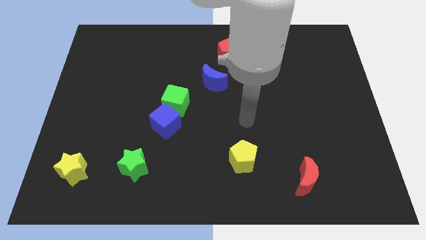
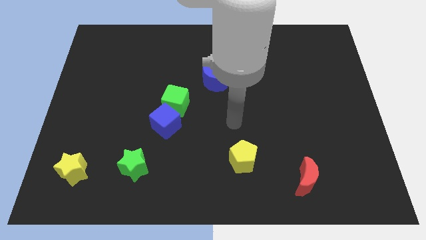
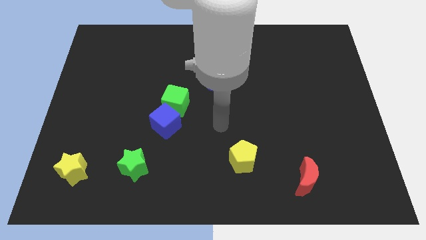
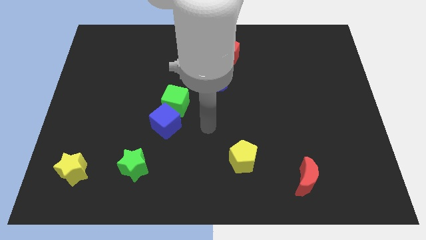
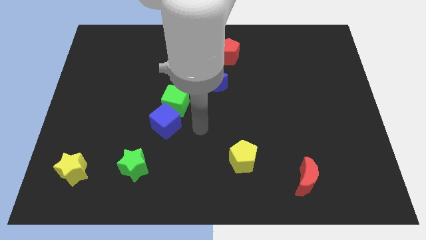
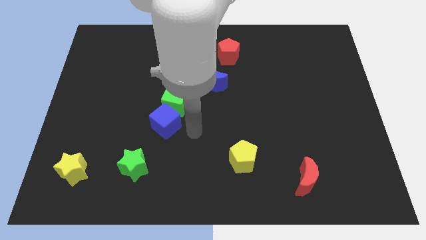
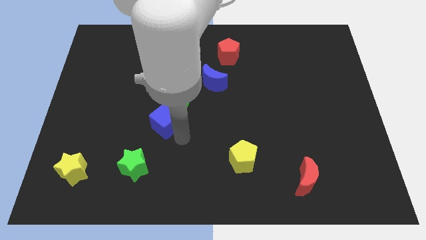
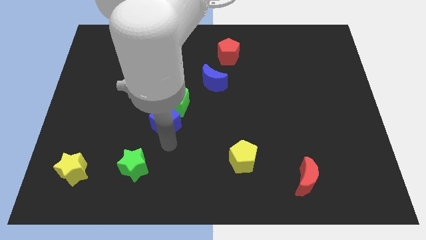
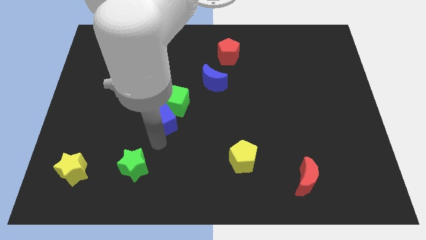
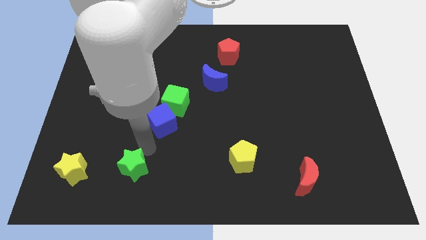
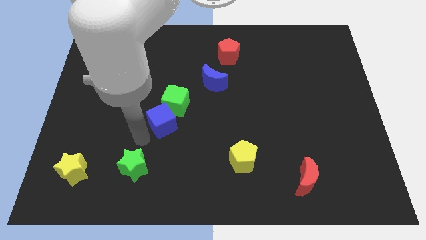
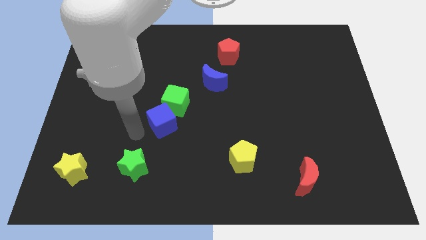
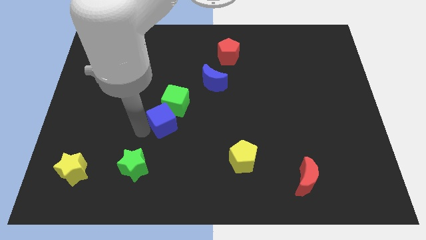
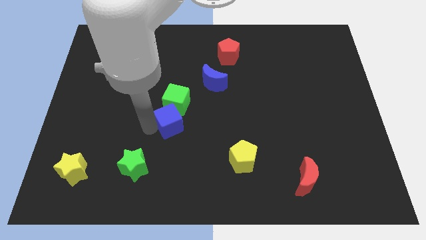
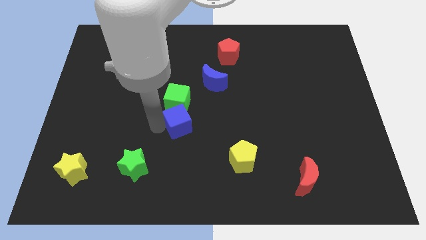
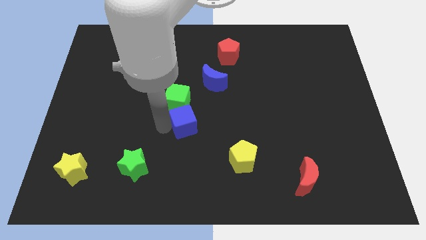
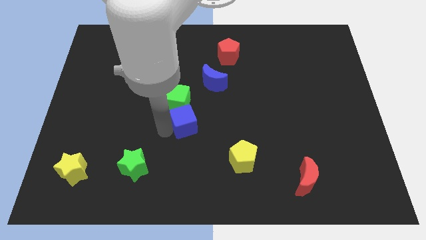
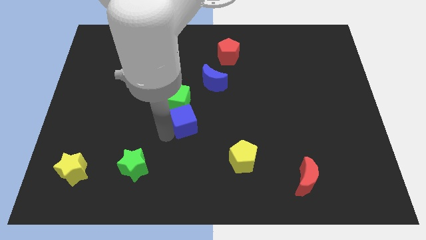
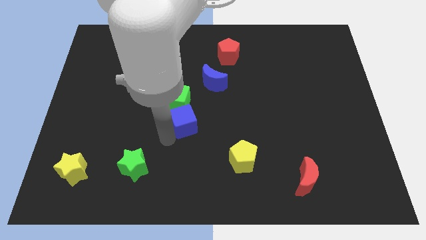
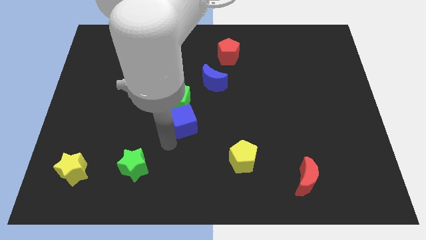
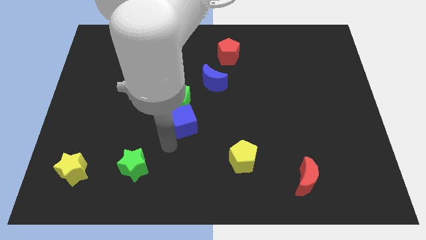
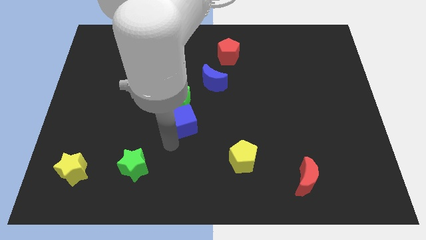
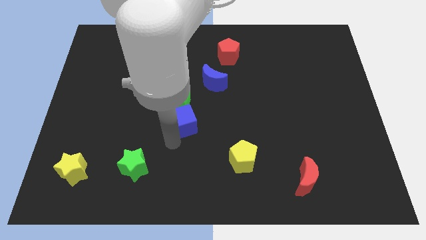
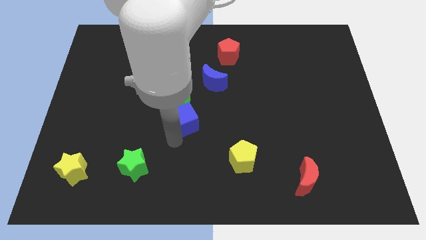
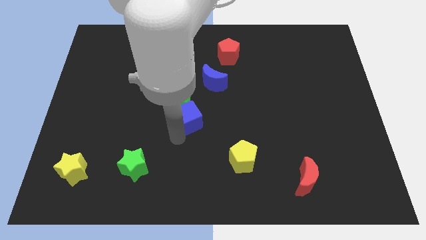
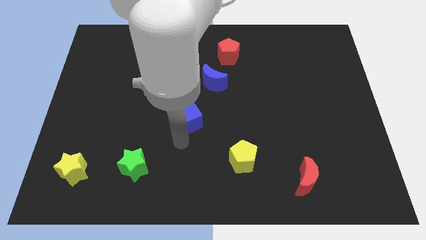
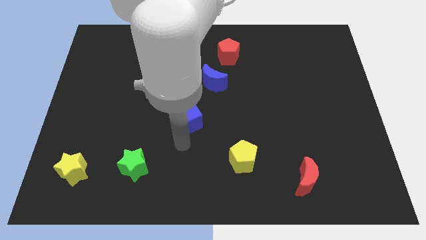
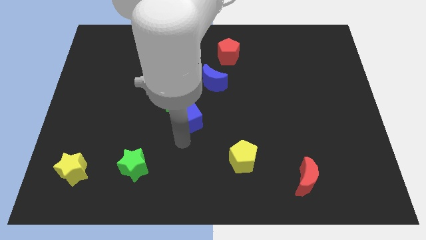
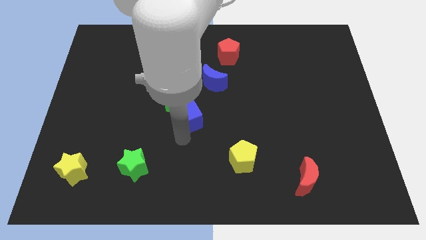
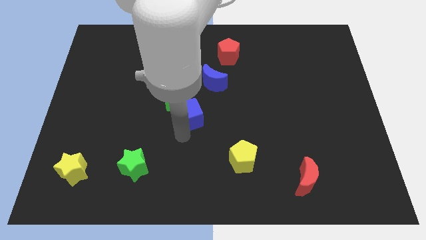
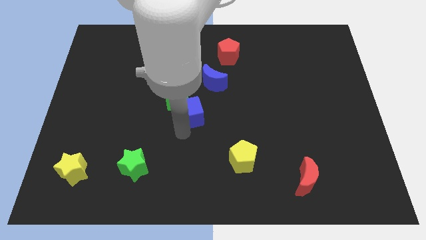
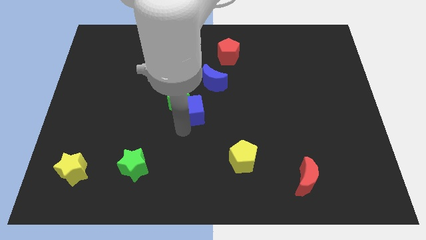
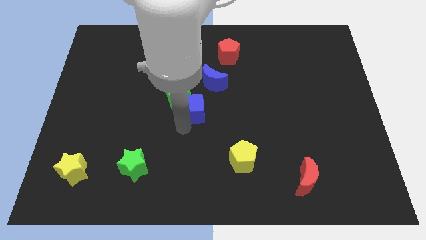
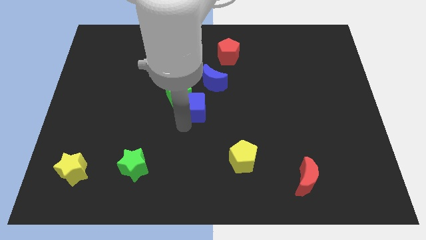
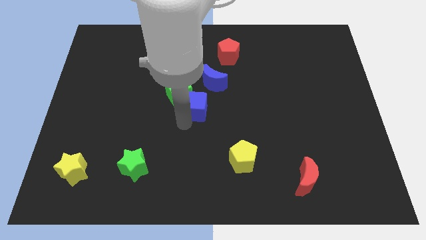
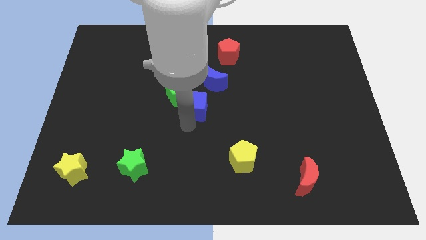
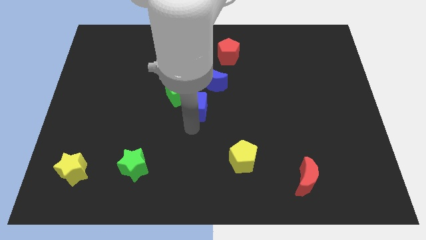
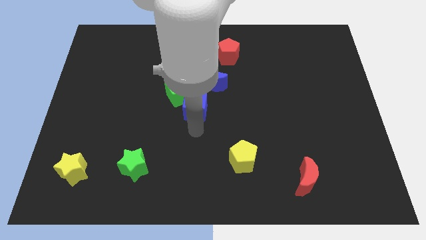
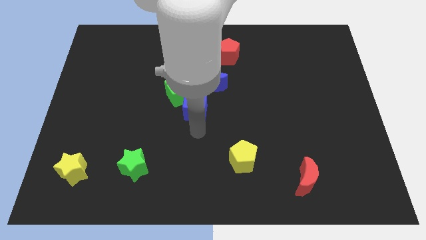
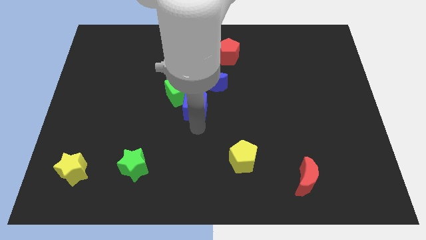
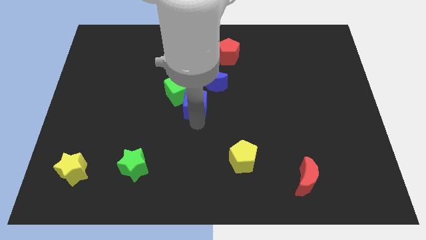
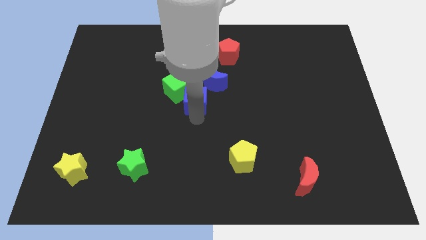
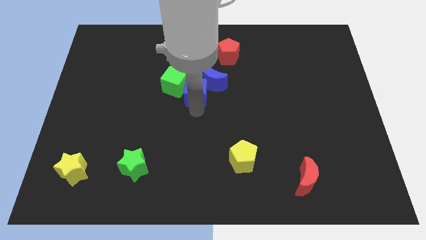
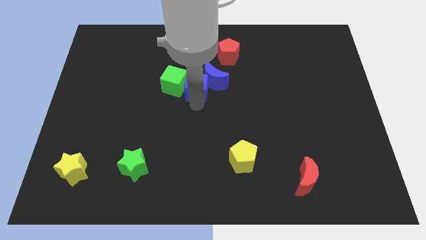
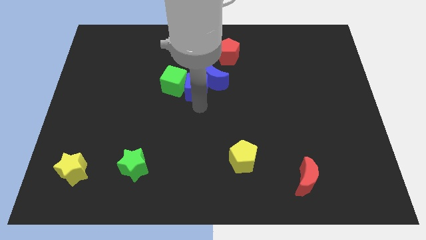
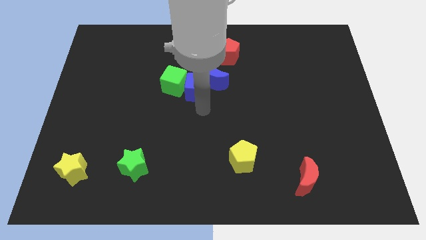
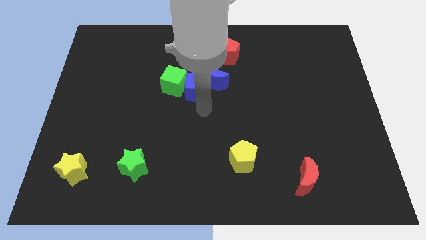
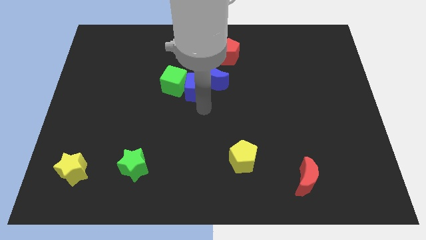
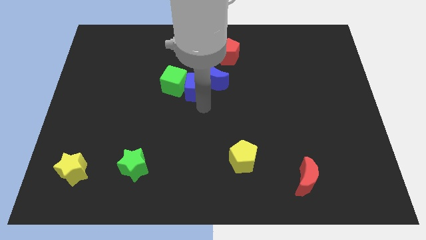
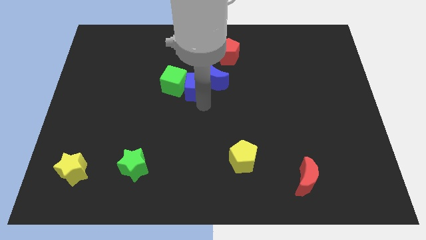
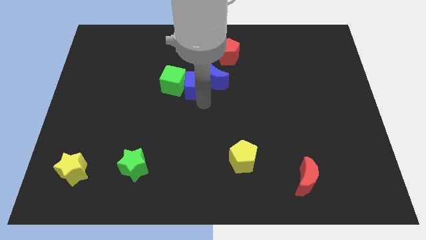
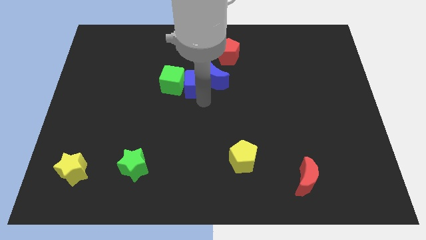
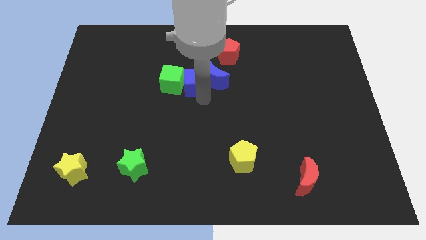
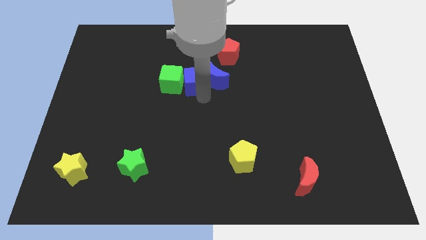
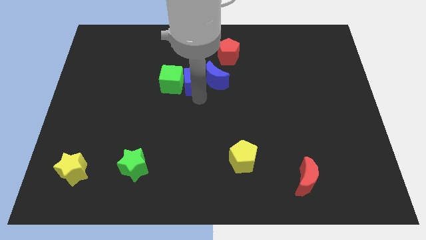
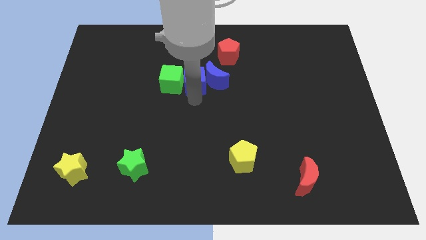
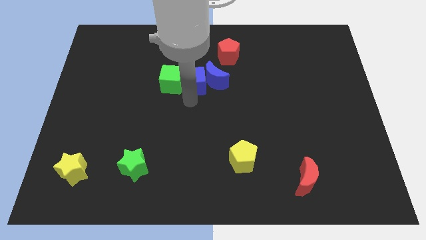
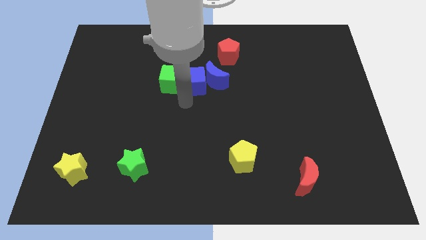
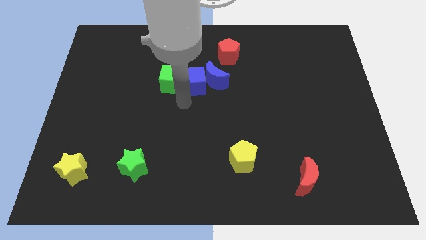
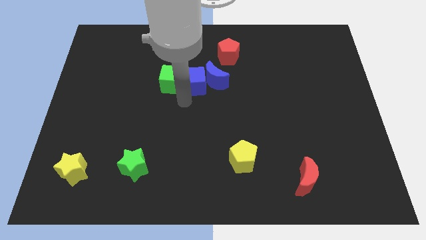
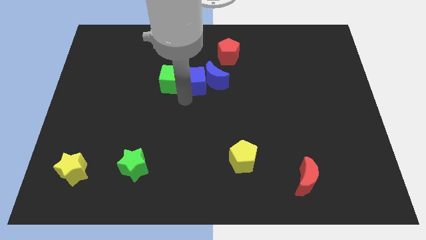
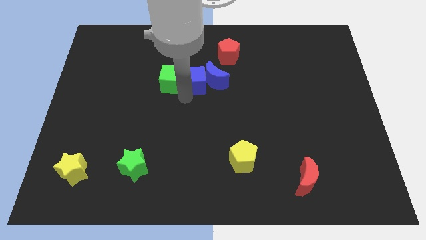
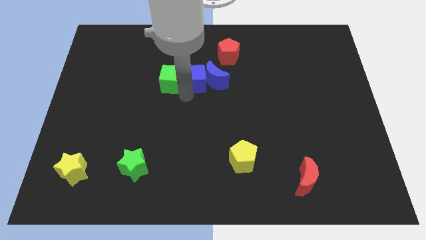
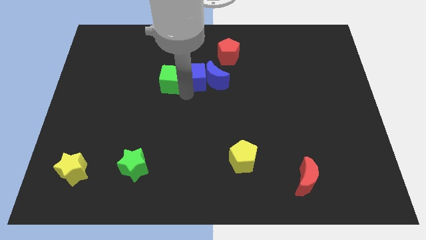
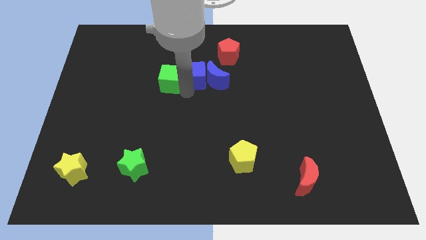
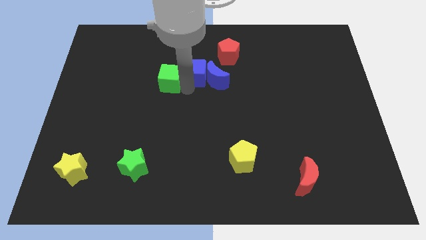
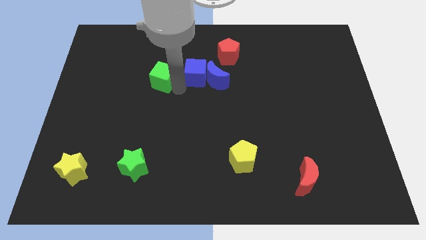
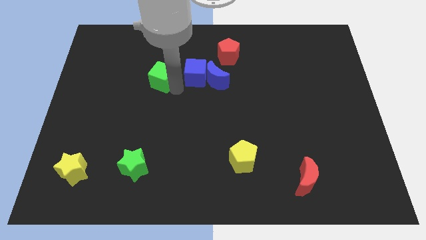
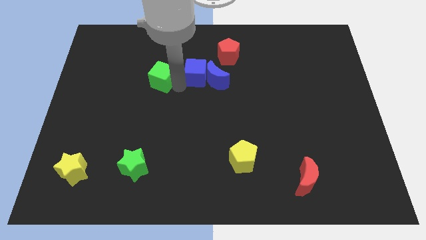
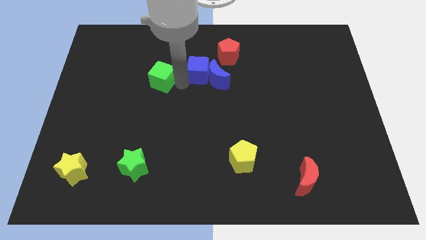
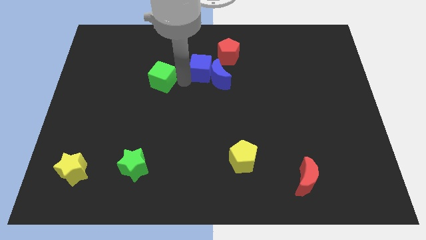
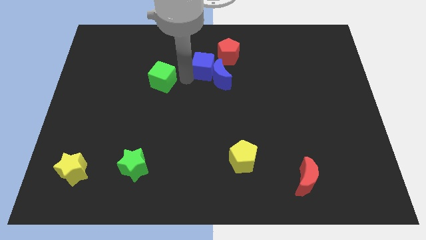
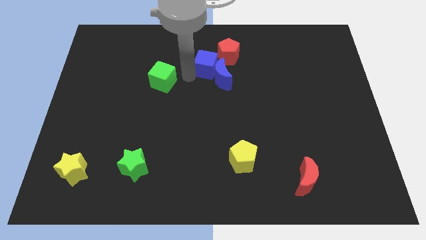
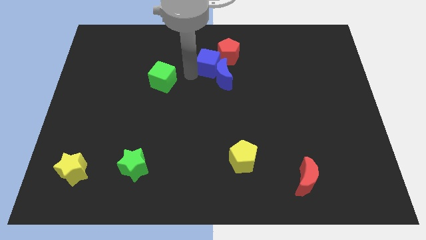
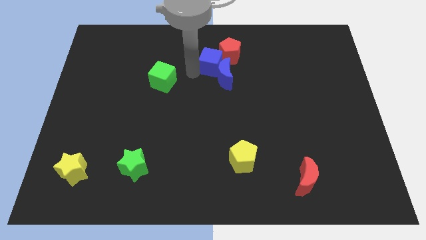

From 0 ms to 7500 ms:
slide the blue cube next to the red pentagon
